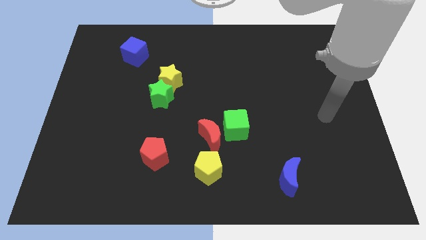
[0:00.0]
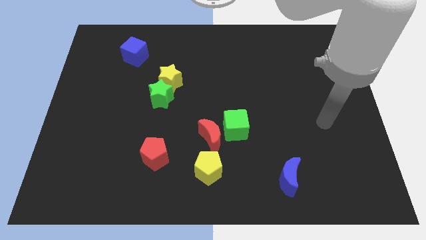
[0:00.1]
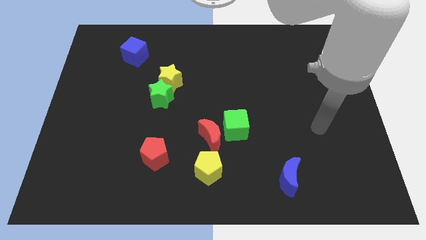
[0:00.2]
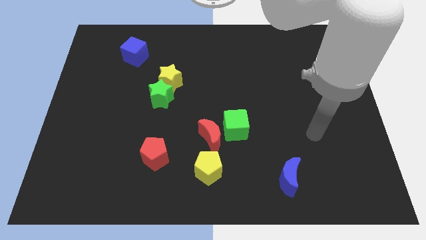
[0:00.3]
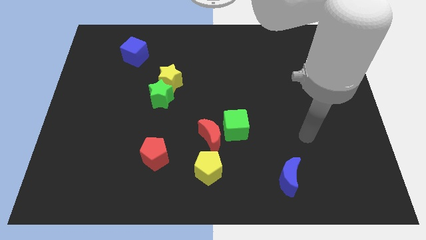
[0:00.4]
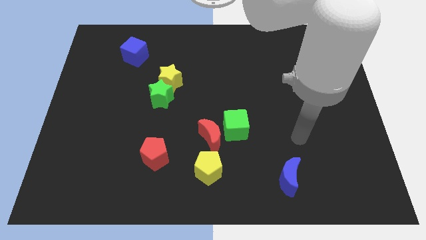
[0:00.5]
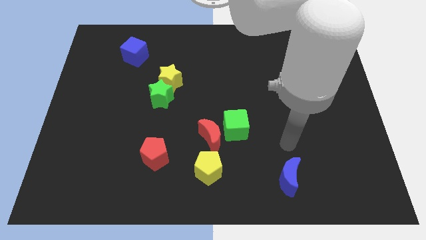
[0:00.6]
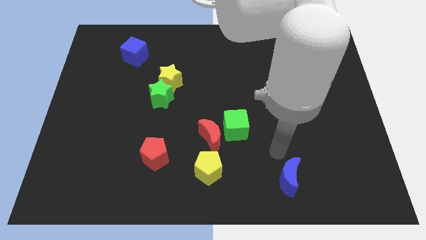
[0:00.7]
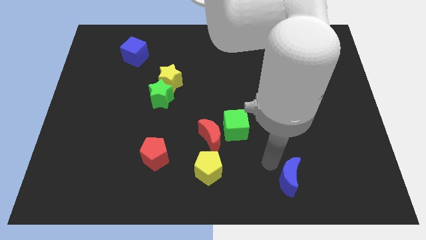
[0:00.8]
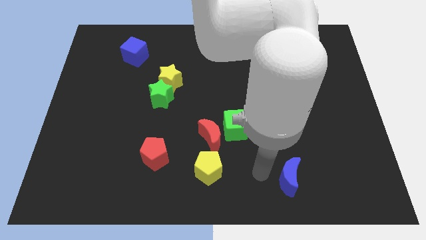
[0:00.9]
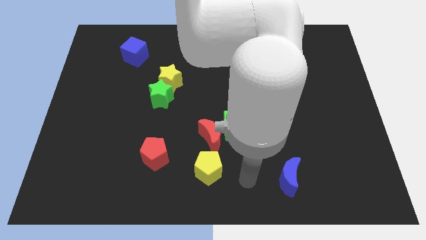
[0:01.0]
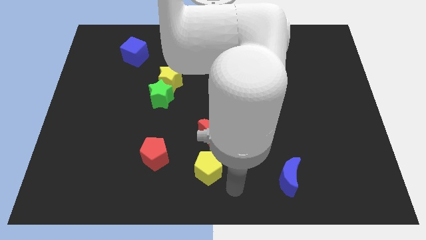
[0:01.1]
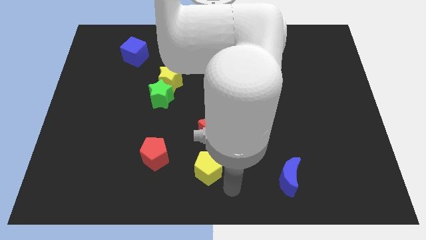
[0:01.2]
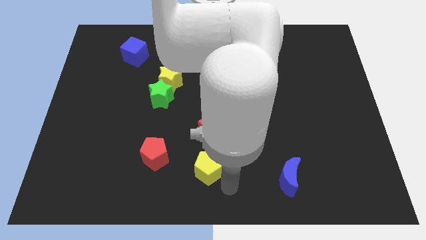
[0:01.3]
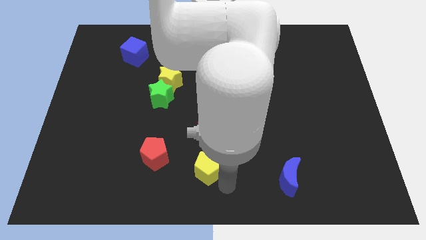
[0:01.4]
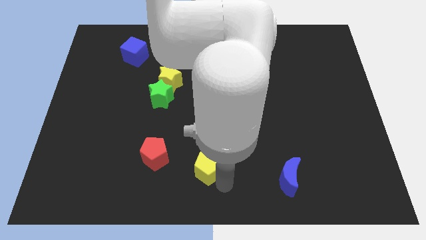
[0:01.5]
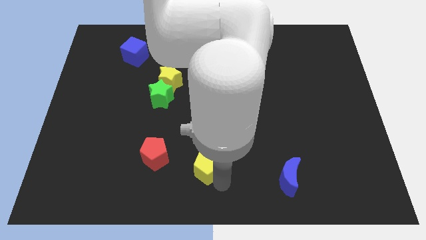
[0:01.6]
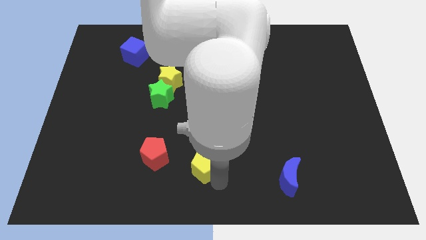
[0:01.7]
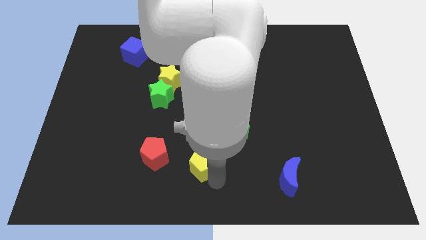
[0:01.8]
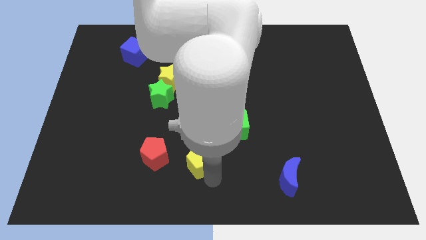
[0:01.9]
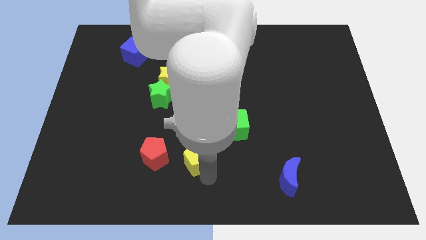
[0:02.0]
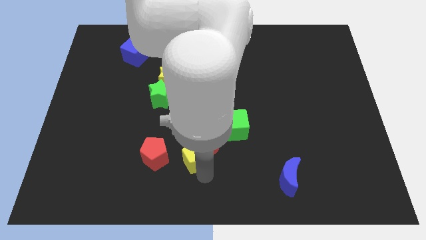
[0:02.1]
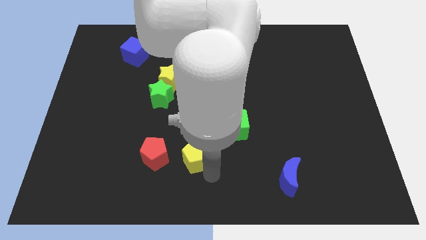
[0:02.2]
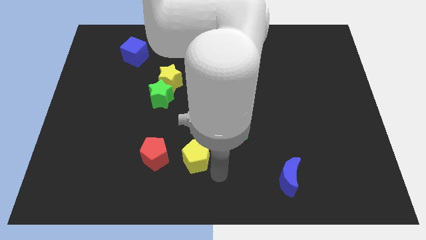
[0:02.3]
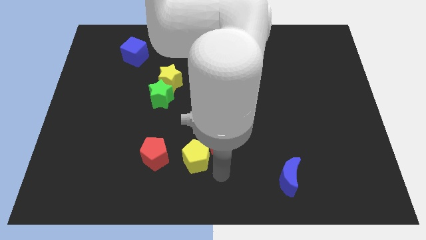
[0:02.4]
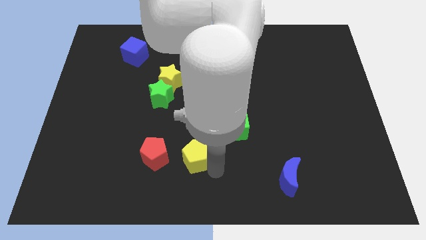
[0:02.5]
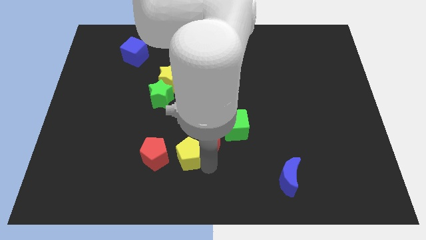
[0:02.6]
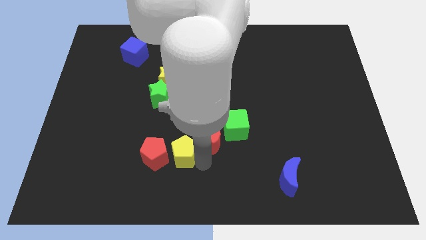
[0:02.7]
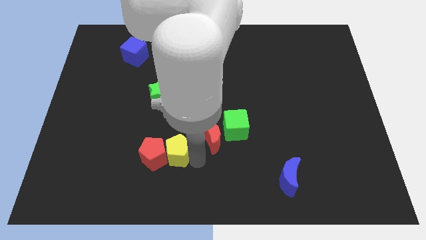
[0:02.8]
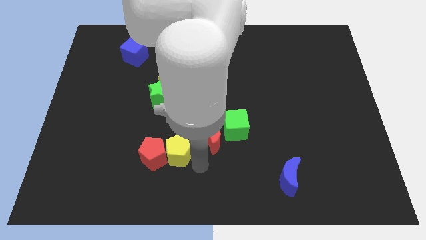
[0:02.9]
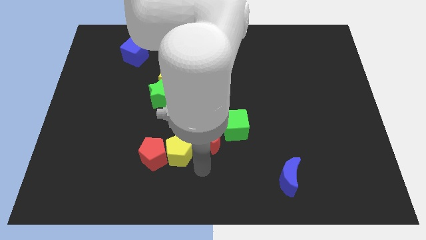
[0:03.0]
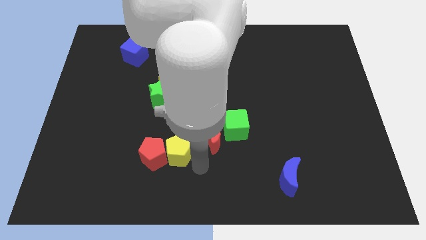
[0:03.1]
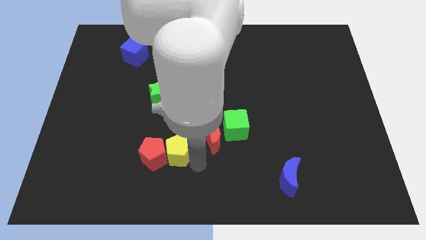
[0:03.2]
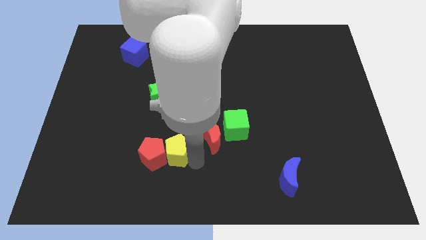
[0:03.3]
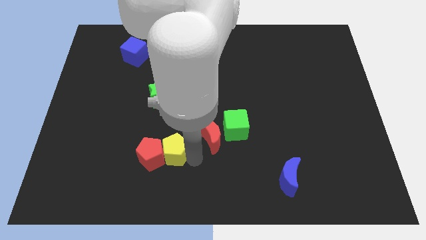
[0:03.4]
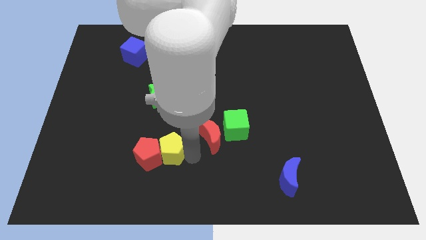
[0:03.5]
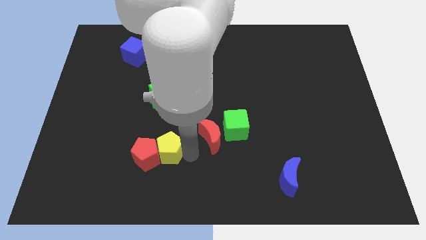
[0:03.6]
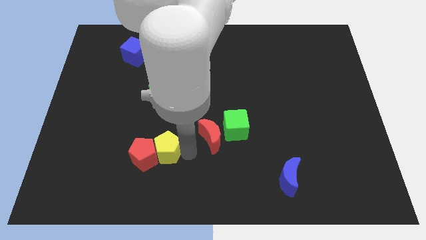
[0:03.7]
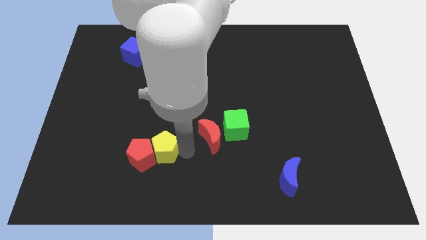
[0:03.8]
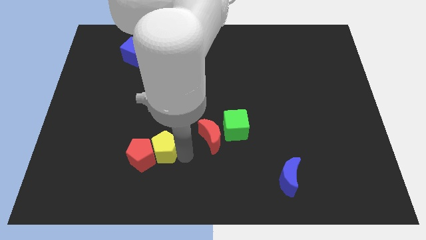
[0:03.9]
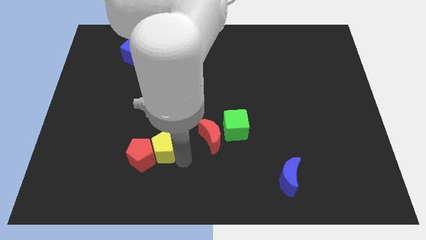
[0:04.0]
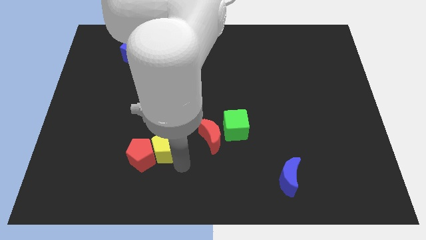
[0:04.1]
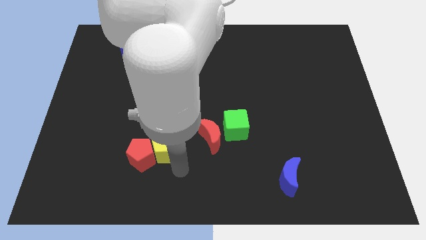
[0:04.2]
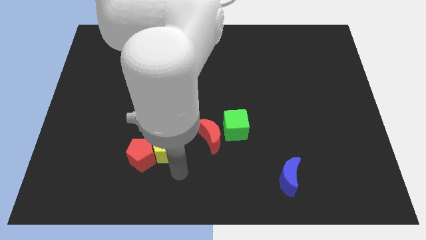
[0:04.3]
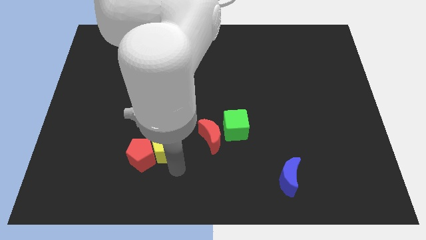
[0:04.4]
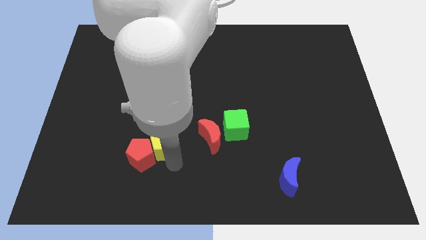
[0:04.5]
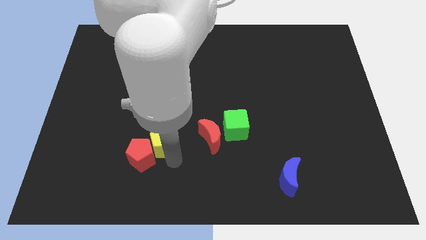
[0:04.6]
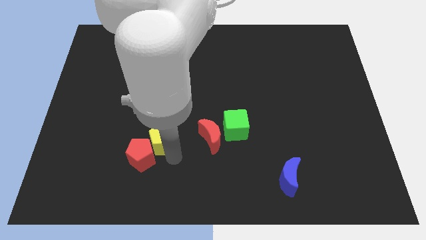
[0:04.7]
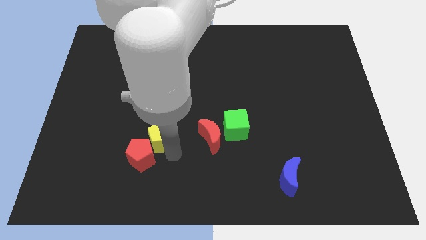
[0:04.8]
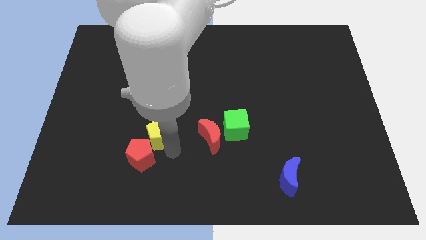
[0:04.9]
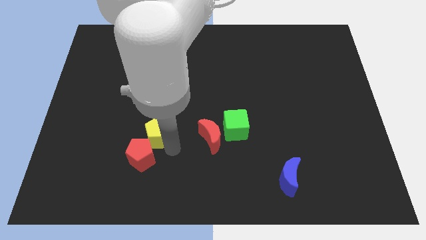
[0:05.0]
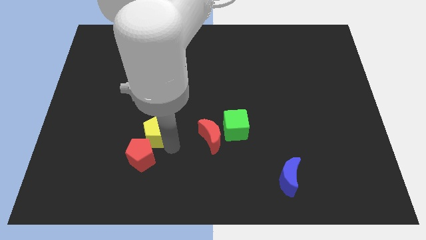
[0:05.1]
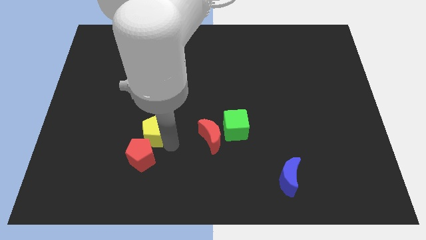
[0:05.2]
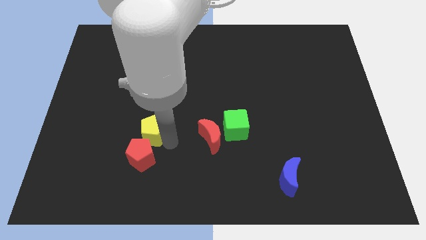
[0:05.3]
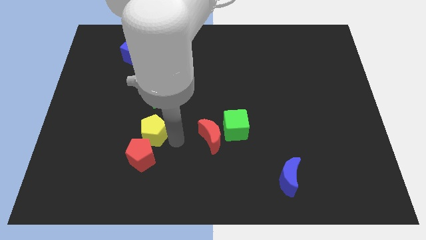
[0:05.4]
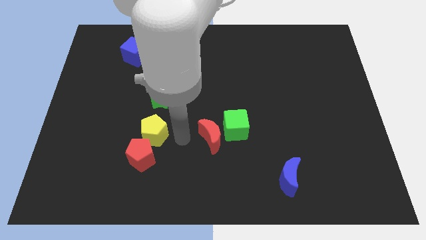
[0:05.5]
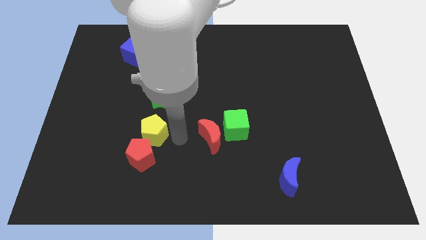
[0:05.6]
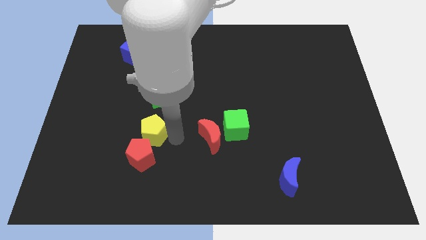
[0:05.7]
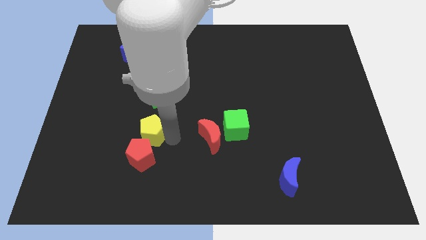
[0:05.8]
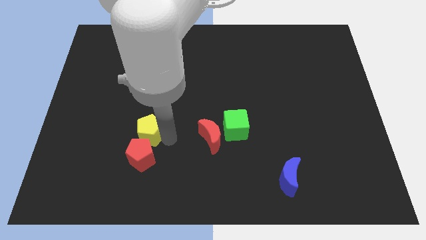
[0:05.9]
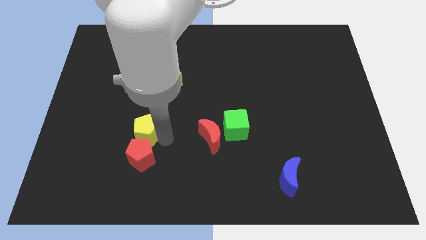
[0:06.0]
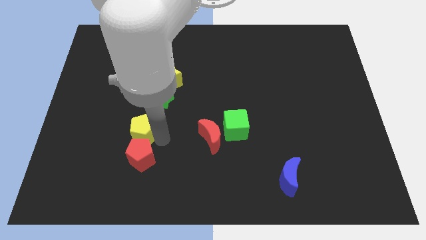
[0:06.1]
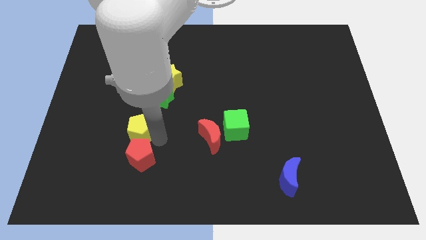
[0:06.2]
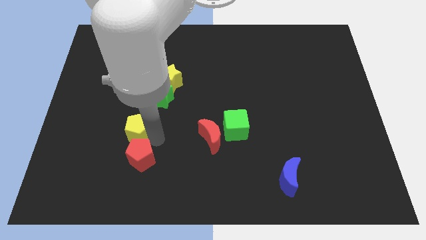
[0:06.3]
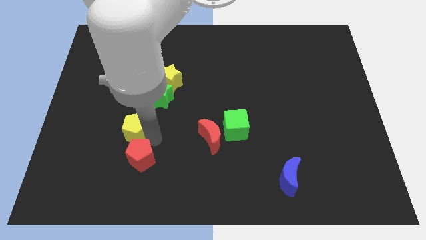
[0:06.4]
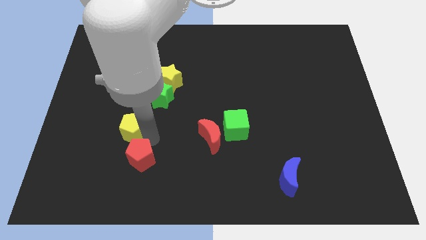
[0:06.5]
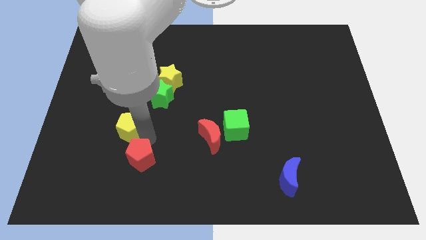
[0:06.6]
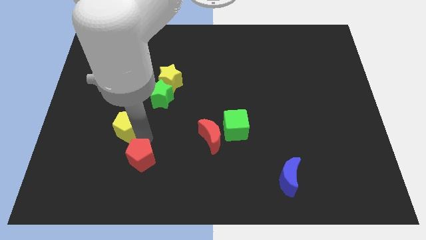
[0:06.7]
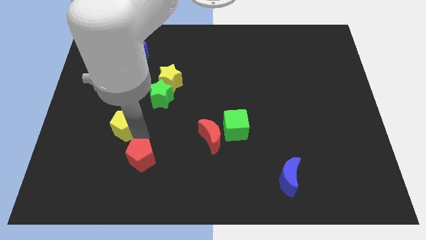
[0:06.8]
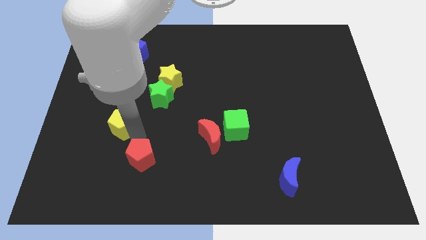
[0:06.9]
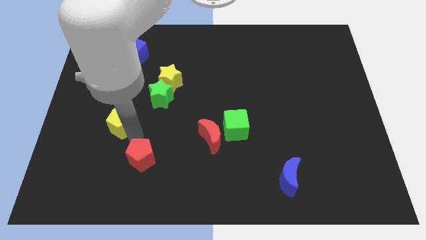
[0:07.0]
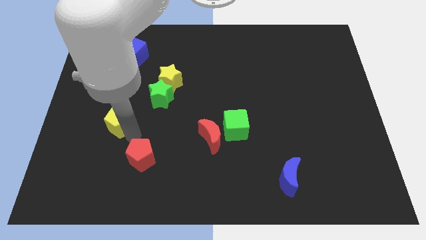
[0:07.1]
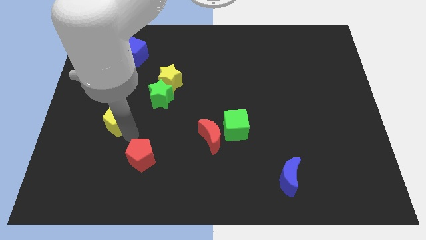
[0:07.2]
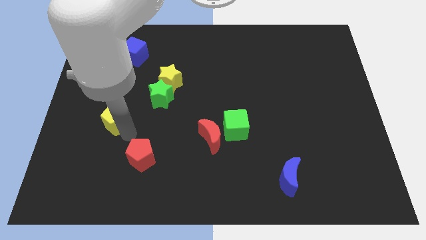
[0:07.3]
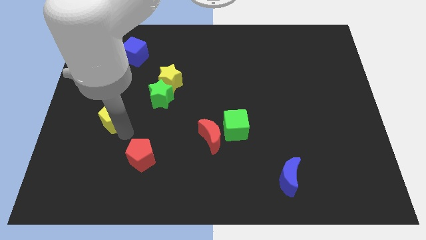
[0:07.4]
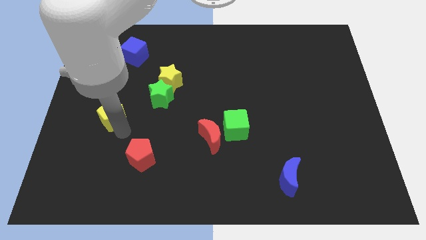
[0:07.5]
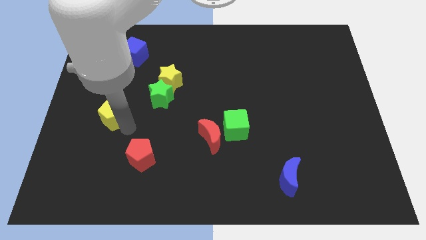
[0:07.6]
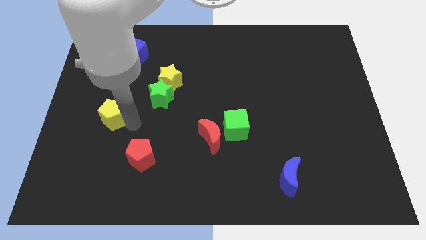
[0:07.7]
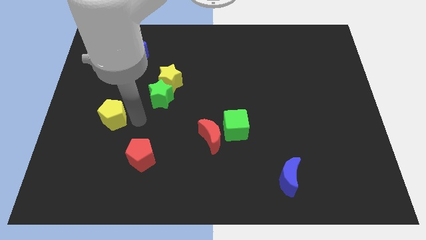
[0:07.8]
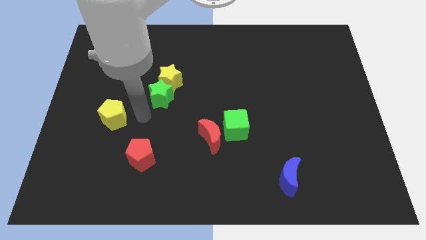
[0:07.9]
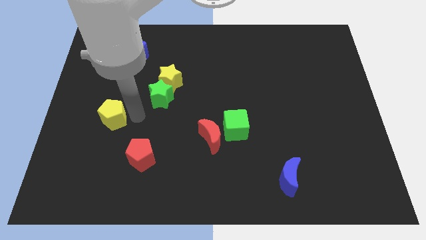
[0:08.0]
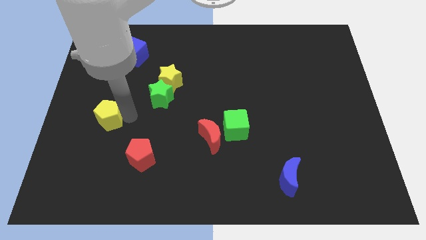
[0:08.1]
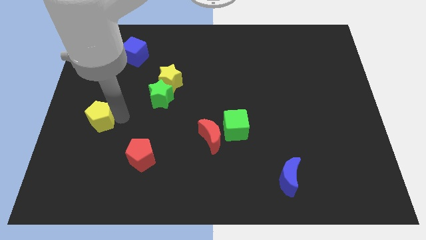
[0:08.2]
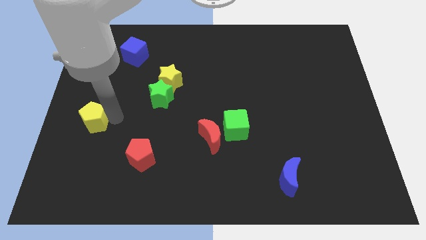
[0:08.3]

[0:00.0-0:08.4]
push the yellow pentagon to the center left
